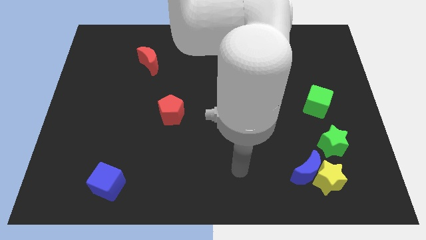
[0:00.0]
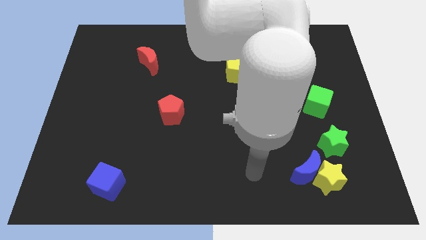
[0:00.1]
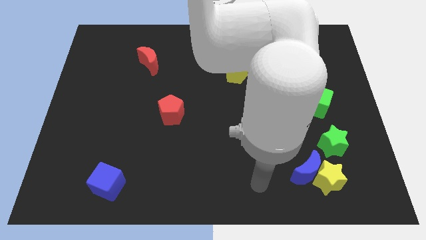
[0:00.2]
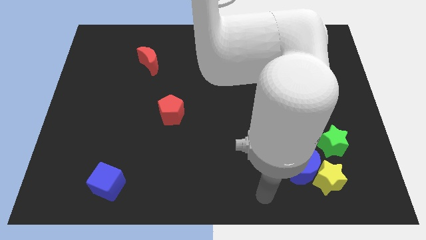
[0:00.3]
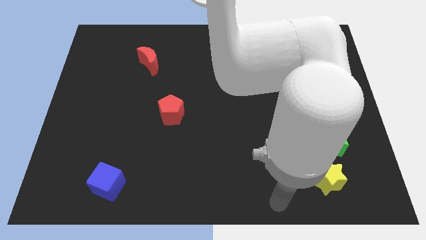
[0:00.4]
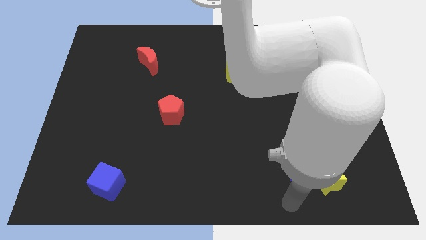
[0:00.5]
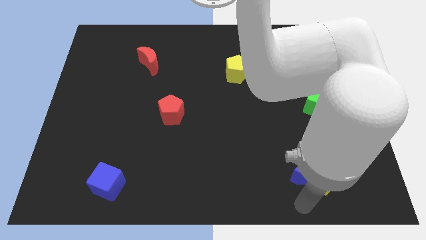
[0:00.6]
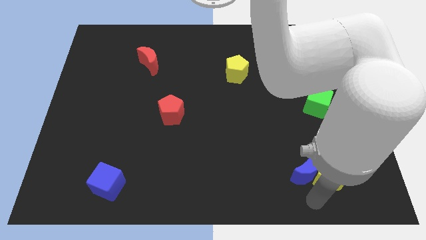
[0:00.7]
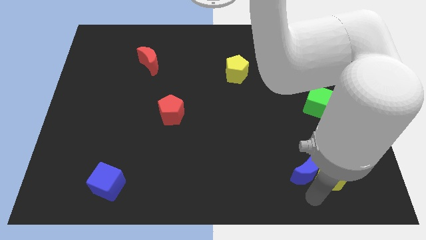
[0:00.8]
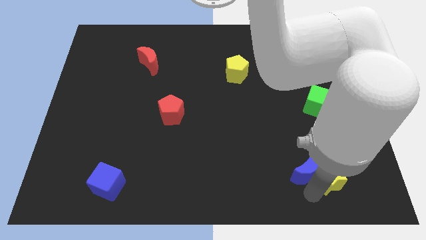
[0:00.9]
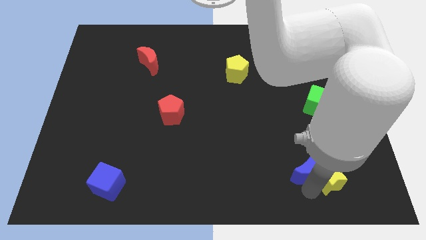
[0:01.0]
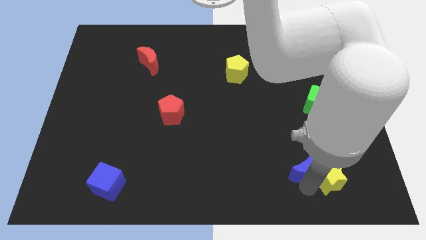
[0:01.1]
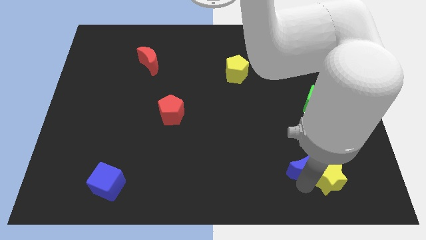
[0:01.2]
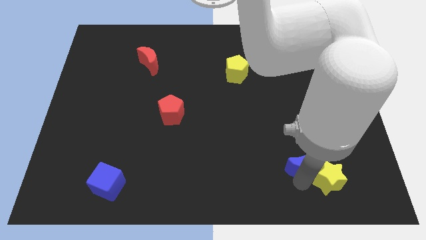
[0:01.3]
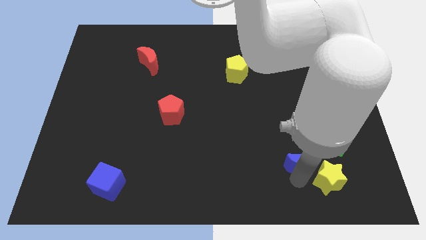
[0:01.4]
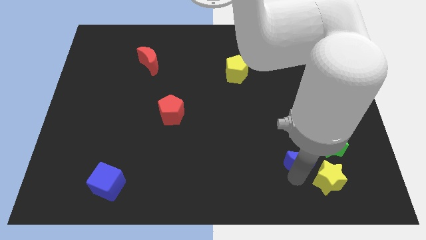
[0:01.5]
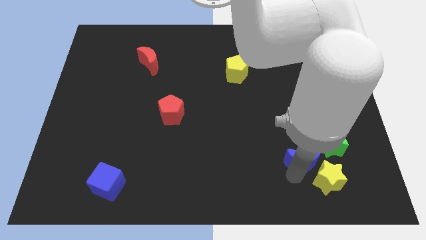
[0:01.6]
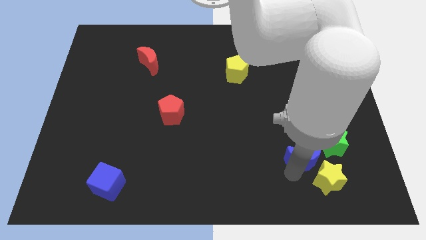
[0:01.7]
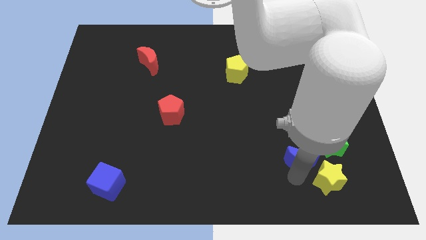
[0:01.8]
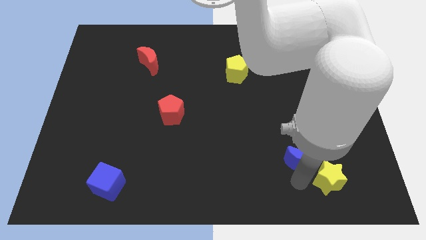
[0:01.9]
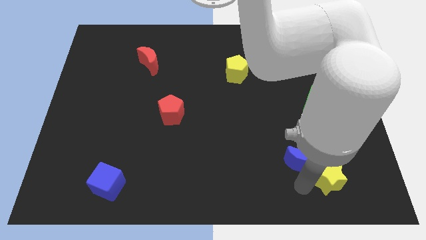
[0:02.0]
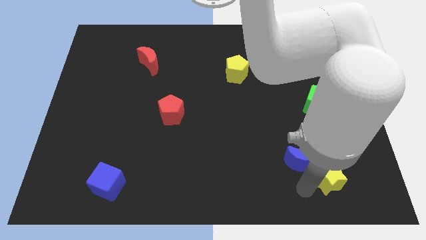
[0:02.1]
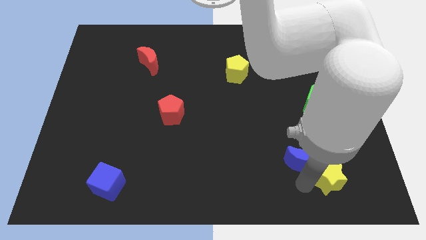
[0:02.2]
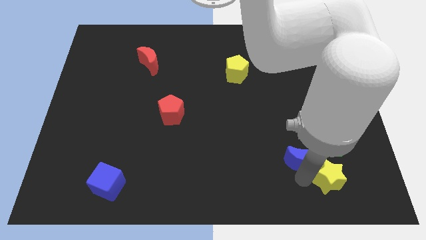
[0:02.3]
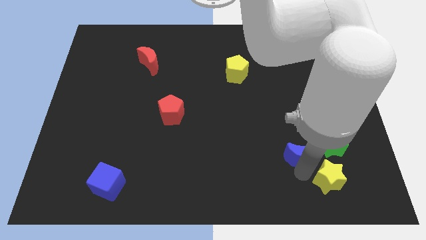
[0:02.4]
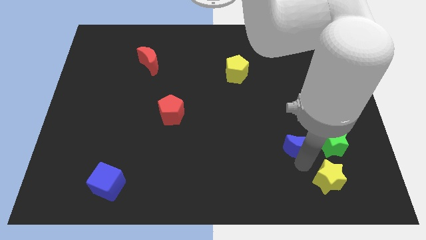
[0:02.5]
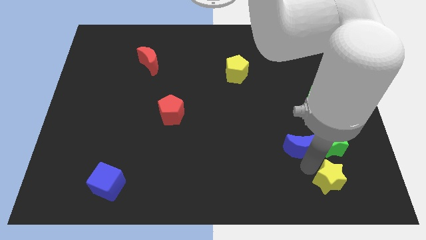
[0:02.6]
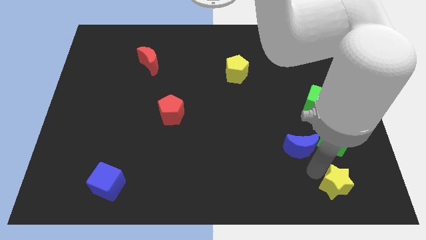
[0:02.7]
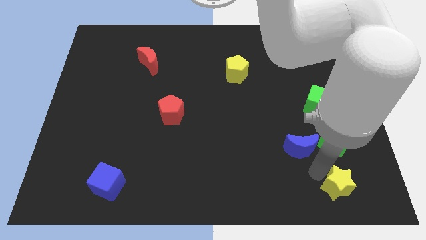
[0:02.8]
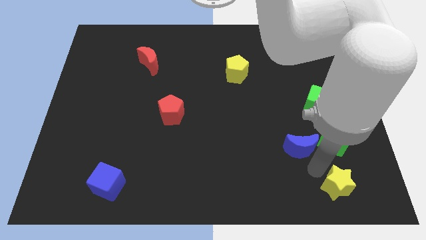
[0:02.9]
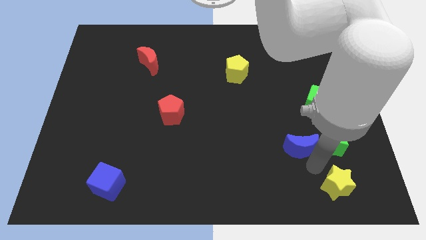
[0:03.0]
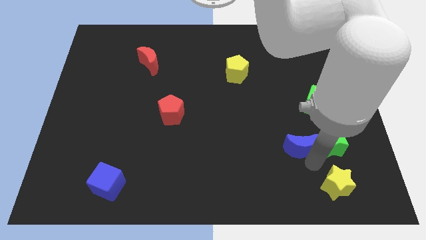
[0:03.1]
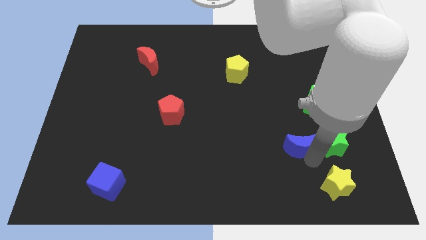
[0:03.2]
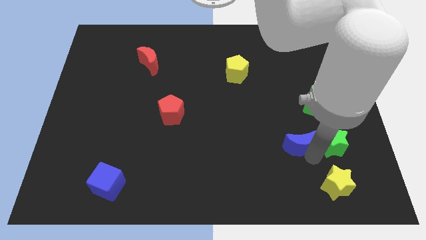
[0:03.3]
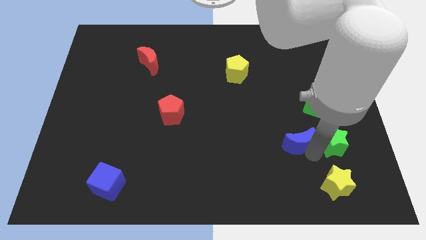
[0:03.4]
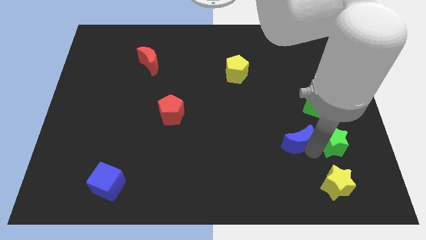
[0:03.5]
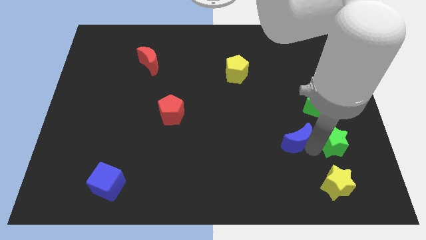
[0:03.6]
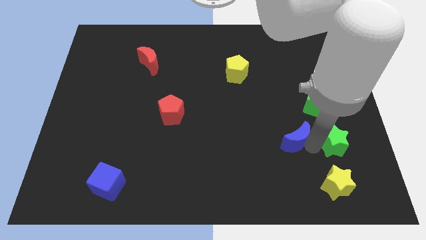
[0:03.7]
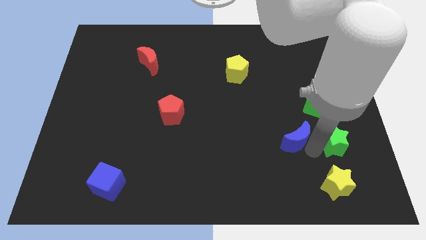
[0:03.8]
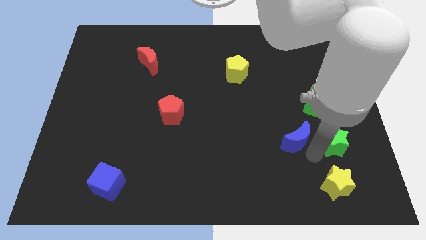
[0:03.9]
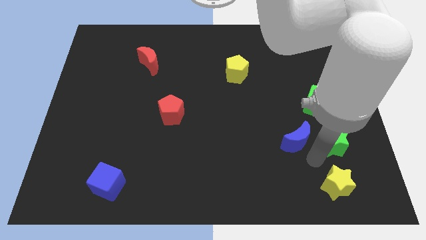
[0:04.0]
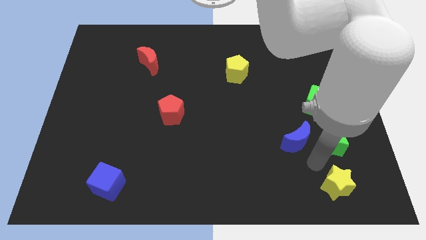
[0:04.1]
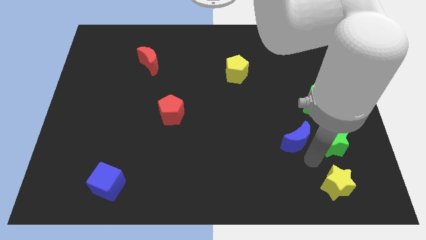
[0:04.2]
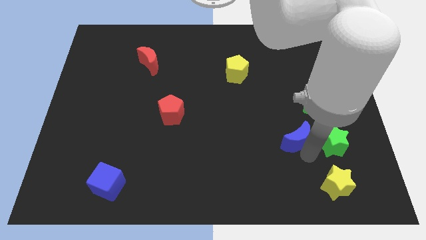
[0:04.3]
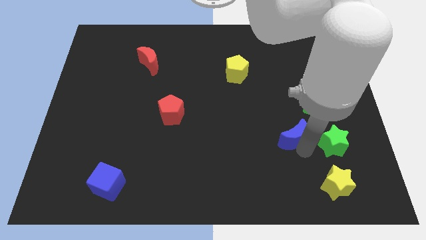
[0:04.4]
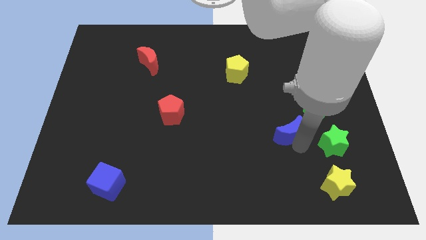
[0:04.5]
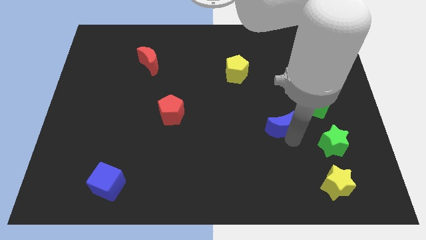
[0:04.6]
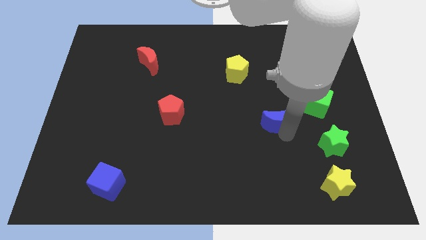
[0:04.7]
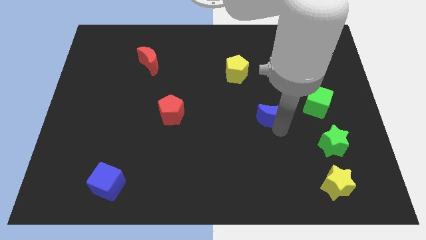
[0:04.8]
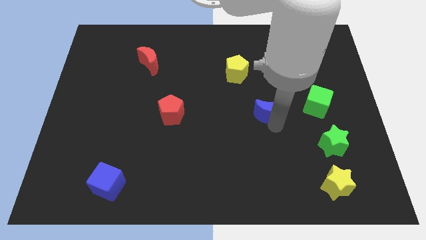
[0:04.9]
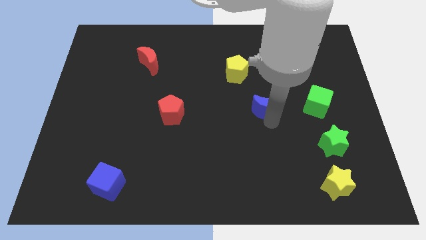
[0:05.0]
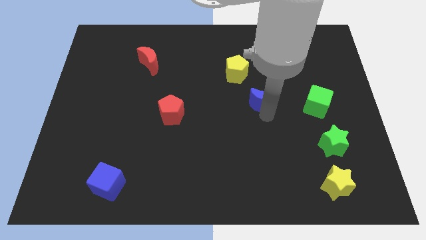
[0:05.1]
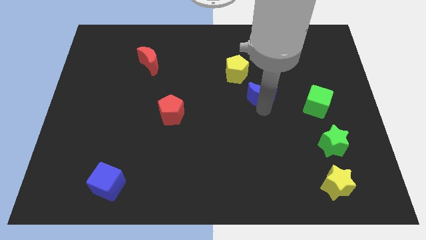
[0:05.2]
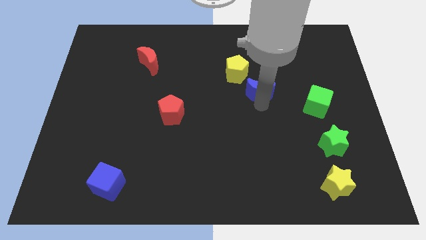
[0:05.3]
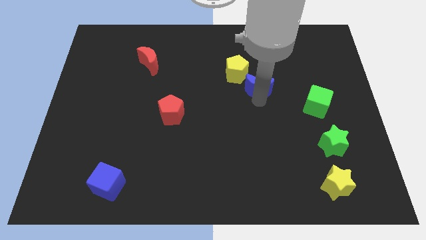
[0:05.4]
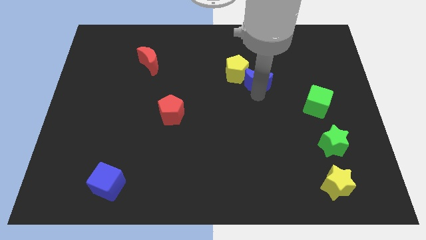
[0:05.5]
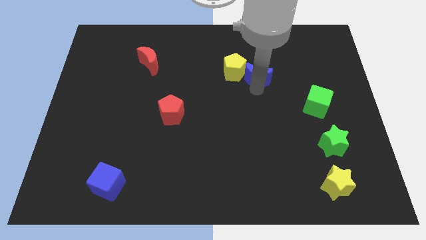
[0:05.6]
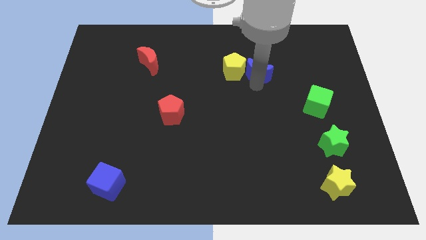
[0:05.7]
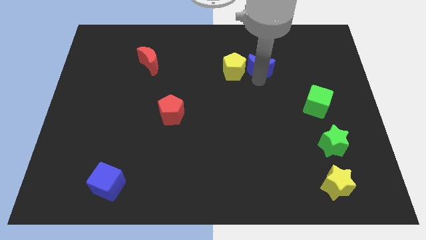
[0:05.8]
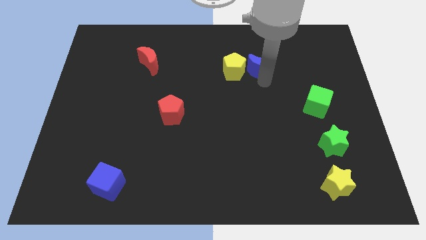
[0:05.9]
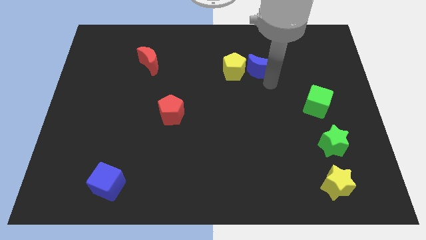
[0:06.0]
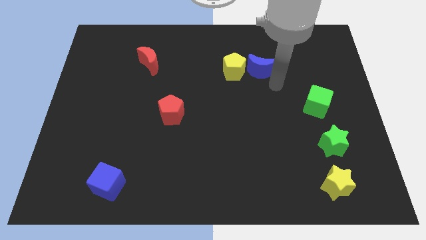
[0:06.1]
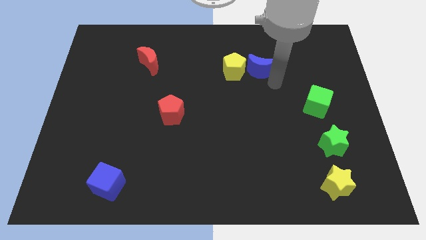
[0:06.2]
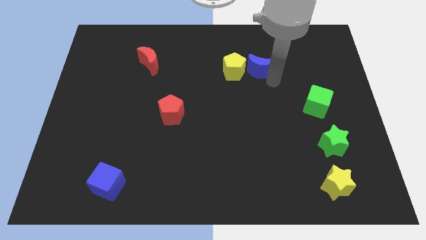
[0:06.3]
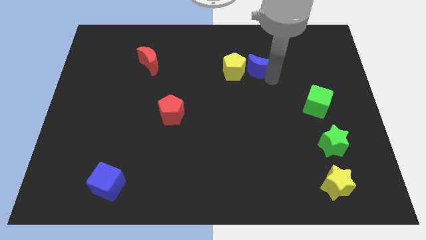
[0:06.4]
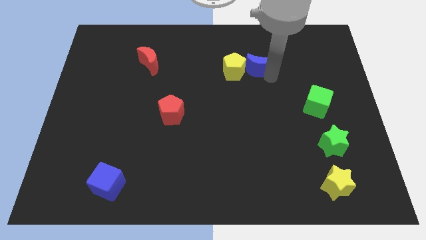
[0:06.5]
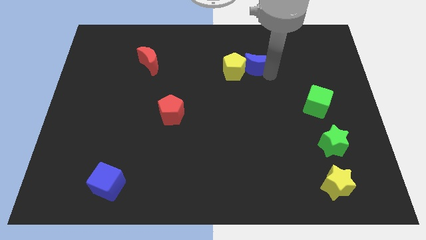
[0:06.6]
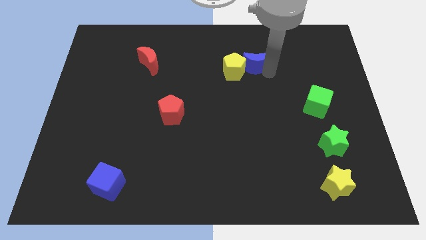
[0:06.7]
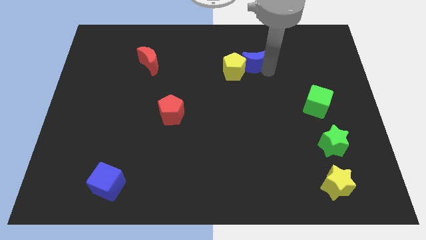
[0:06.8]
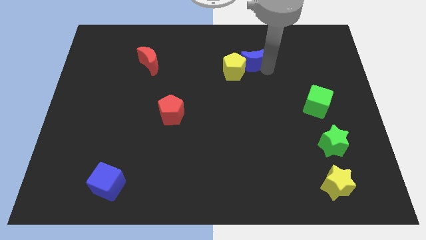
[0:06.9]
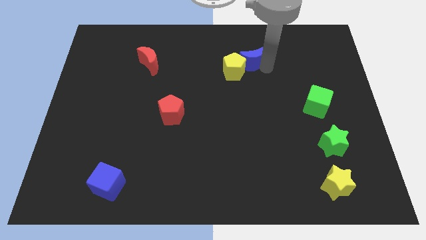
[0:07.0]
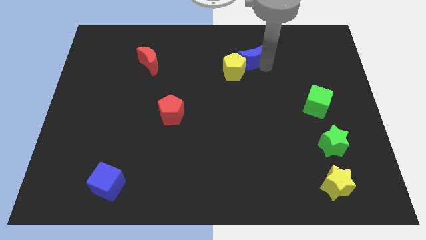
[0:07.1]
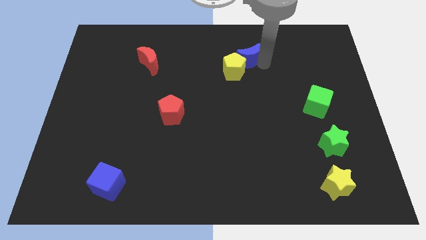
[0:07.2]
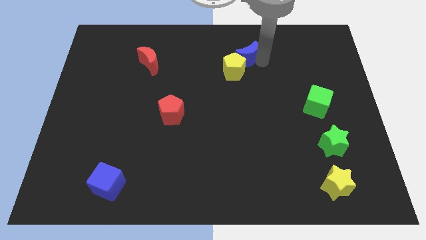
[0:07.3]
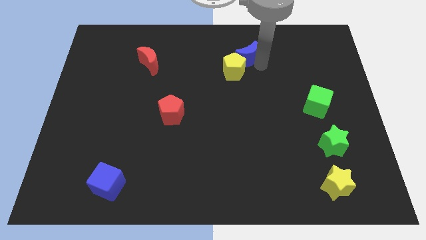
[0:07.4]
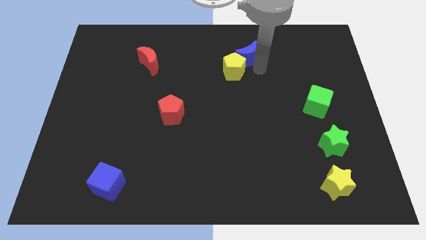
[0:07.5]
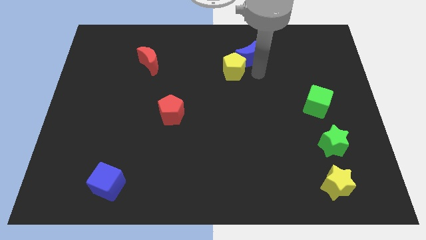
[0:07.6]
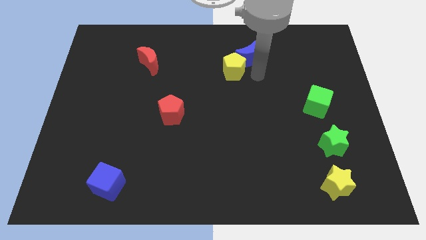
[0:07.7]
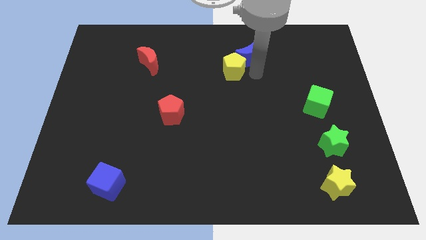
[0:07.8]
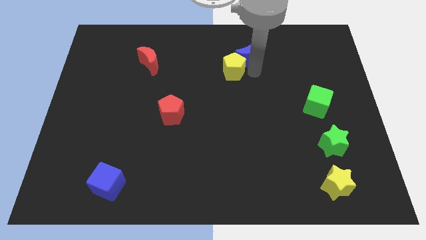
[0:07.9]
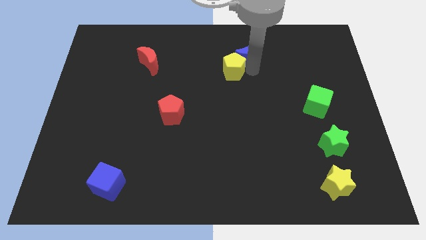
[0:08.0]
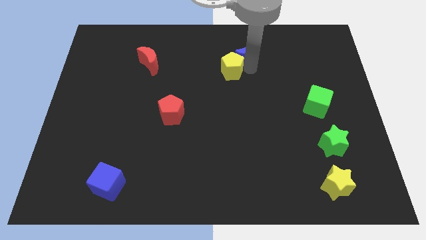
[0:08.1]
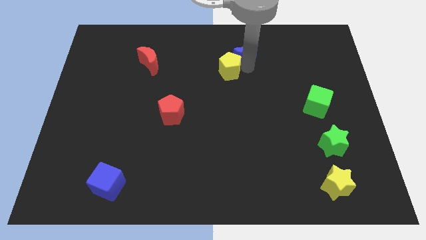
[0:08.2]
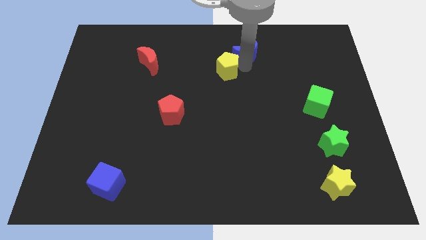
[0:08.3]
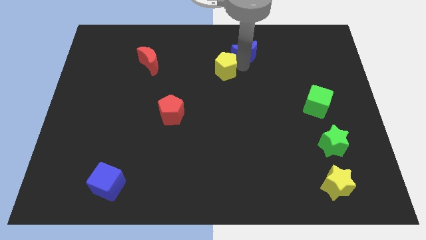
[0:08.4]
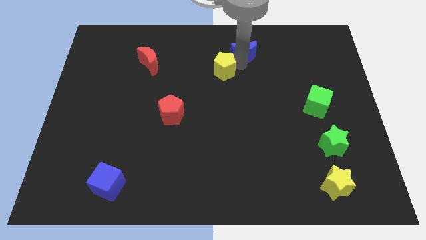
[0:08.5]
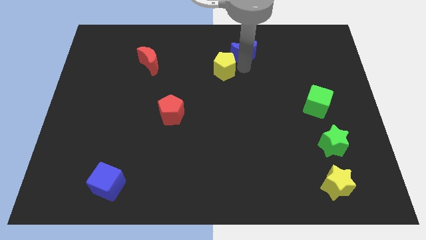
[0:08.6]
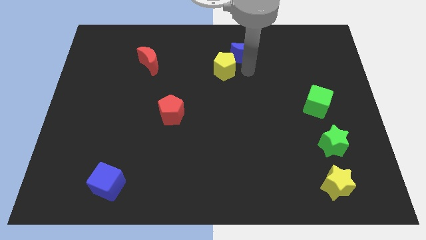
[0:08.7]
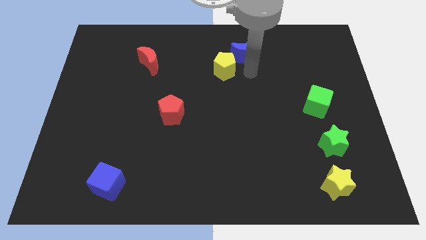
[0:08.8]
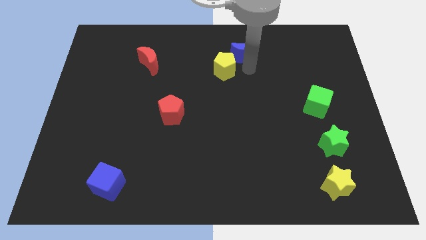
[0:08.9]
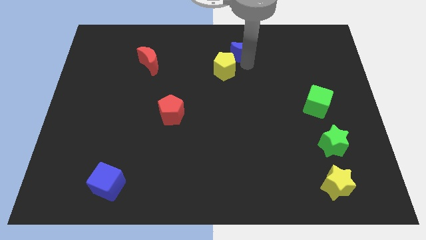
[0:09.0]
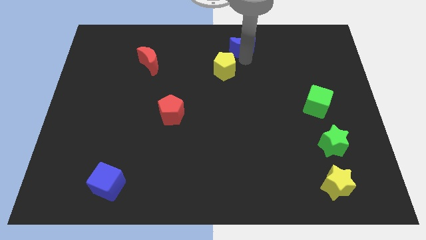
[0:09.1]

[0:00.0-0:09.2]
slide the blue moon to the towards your base
